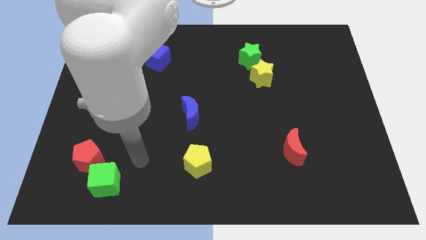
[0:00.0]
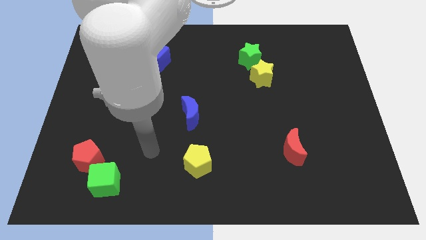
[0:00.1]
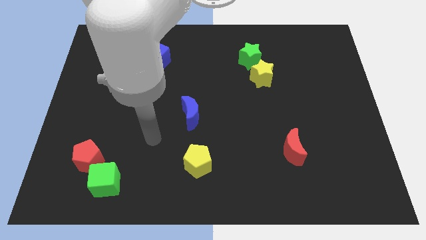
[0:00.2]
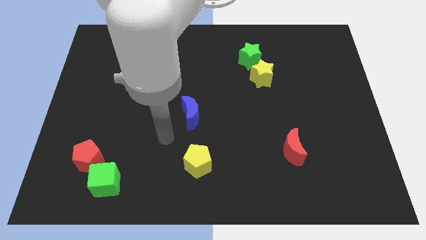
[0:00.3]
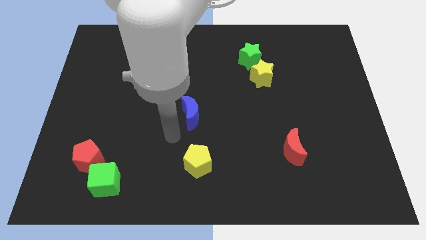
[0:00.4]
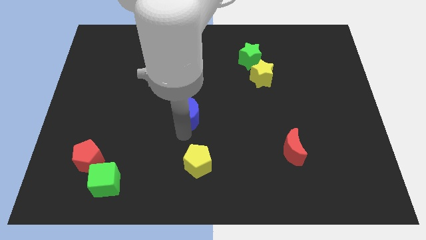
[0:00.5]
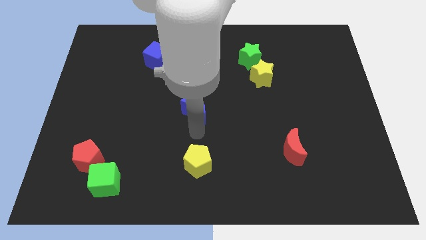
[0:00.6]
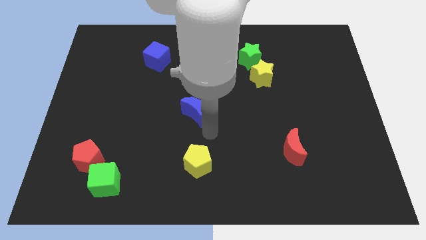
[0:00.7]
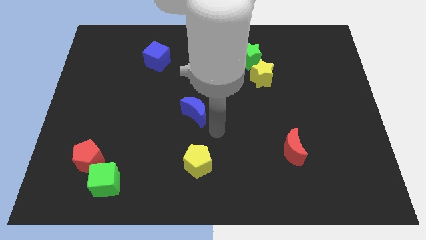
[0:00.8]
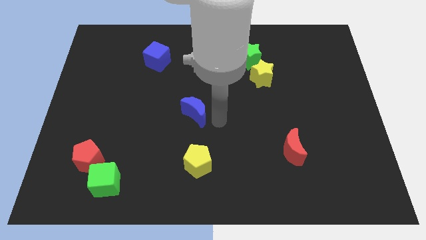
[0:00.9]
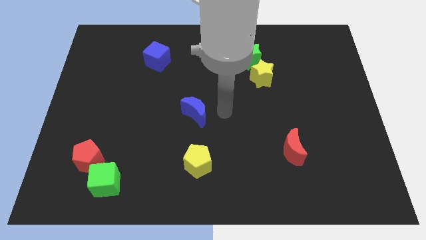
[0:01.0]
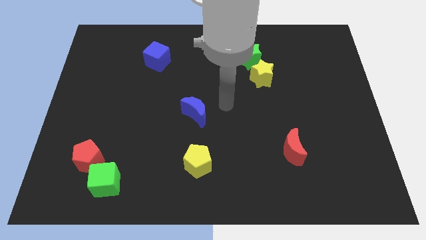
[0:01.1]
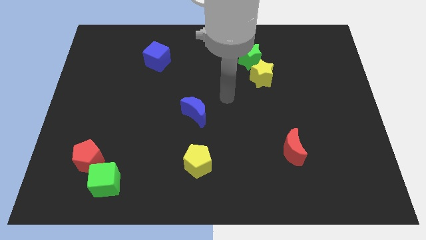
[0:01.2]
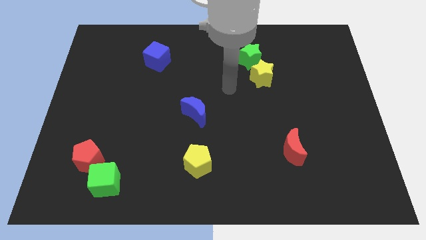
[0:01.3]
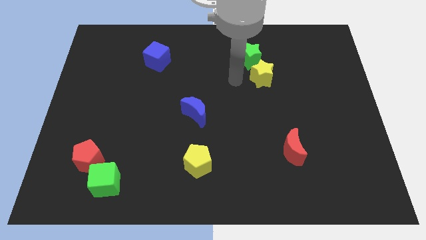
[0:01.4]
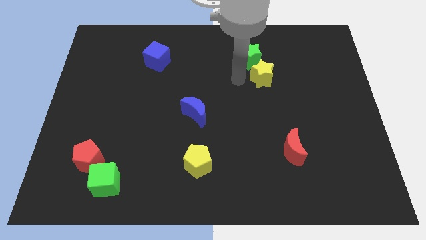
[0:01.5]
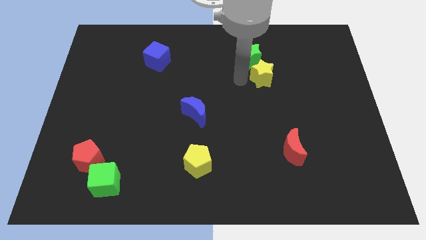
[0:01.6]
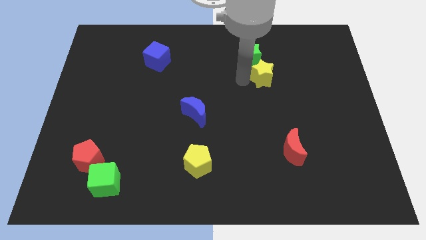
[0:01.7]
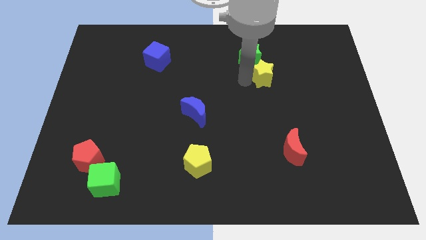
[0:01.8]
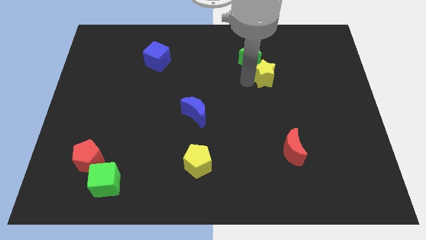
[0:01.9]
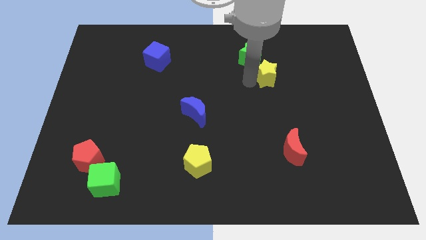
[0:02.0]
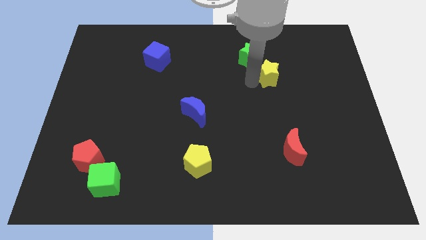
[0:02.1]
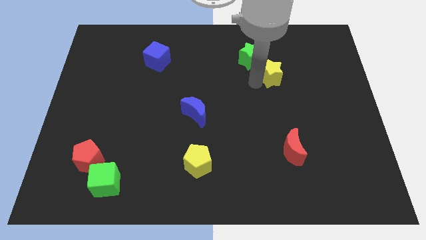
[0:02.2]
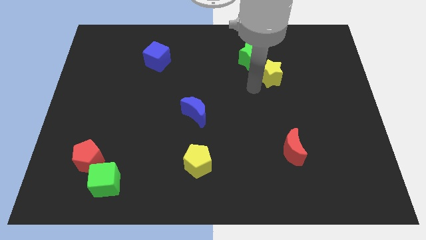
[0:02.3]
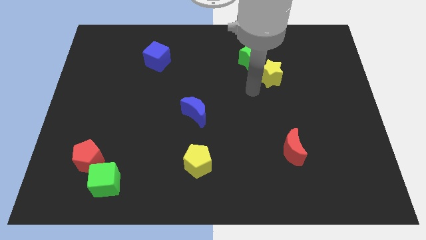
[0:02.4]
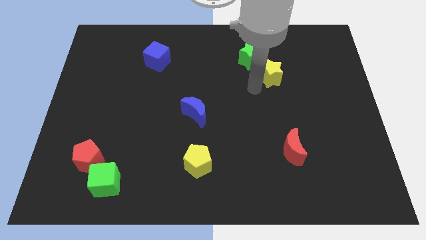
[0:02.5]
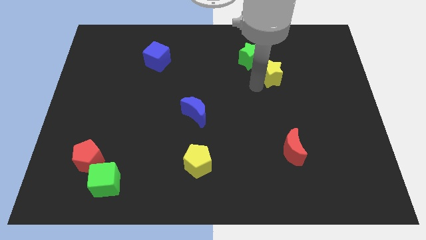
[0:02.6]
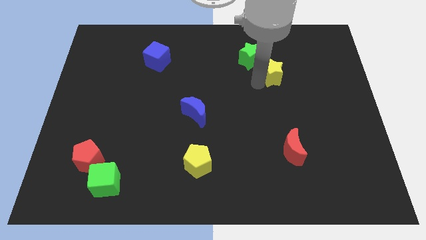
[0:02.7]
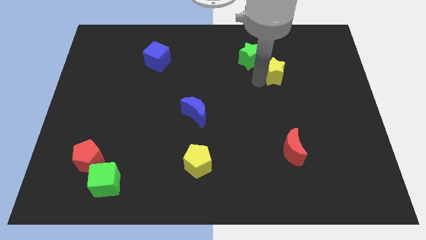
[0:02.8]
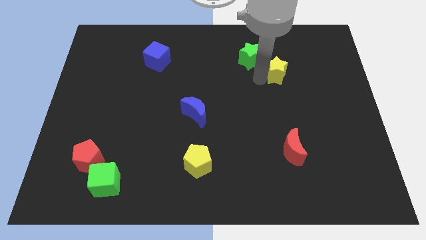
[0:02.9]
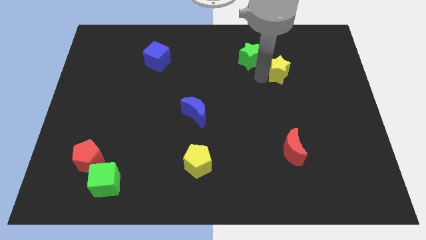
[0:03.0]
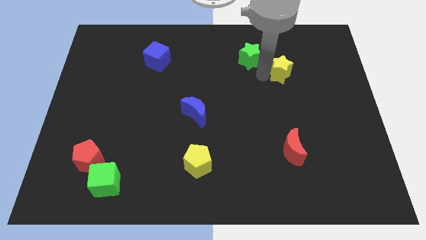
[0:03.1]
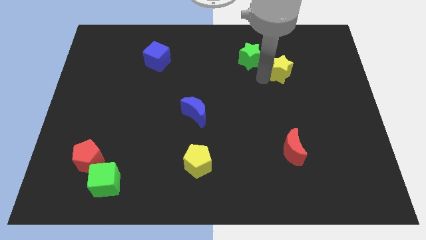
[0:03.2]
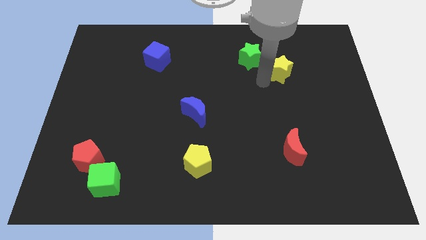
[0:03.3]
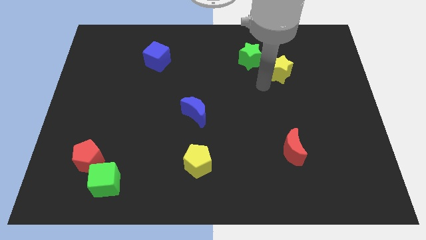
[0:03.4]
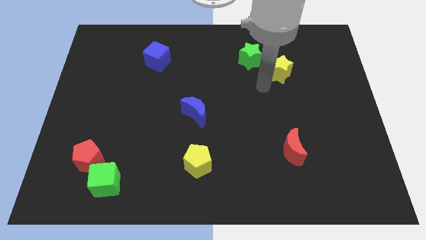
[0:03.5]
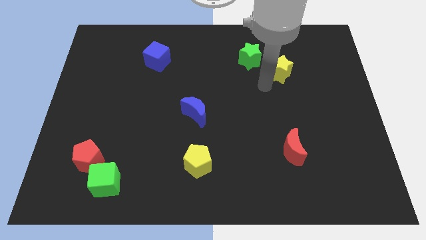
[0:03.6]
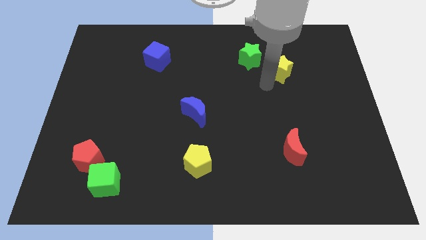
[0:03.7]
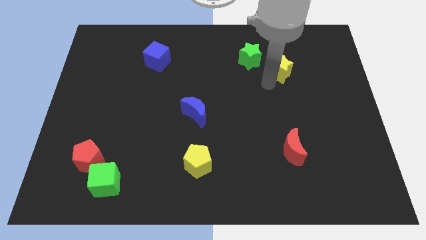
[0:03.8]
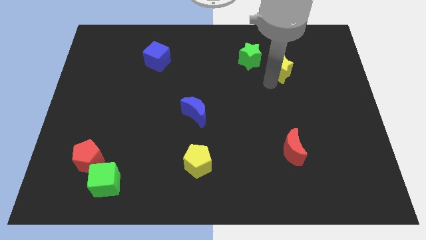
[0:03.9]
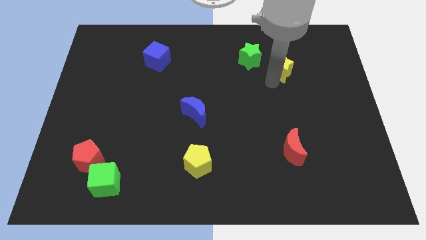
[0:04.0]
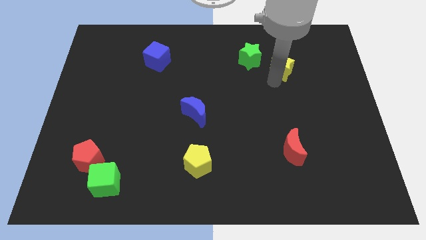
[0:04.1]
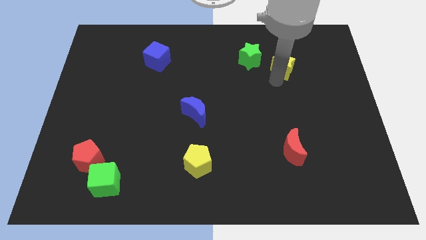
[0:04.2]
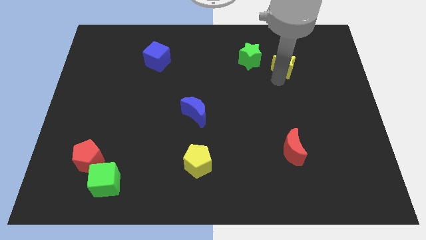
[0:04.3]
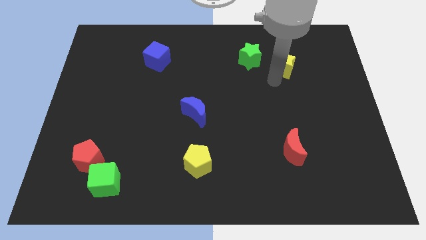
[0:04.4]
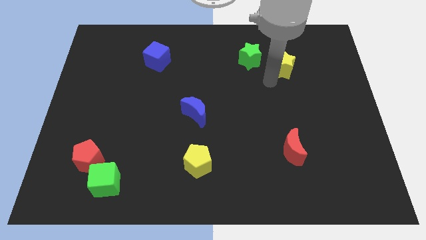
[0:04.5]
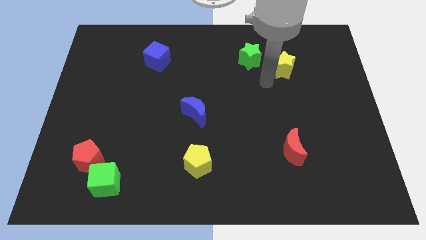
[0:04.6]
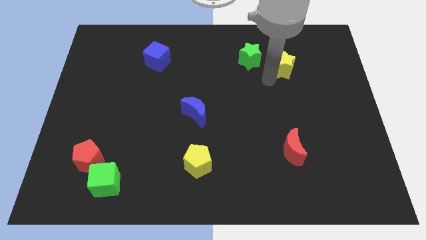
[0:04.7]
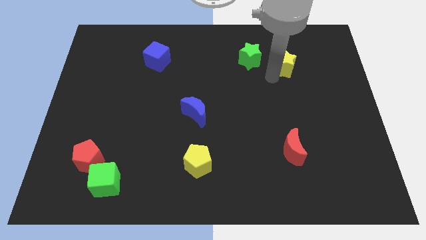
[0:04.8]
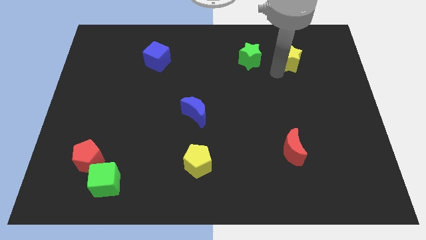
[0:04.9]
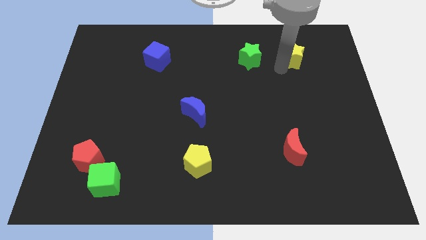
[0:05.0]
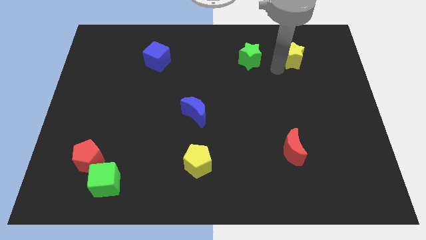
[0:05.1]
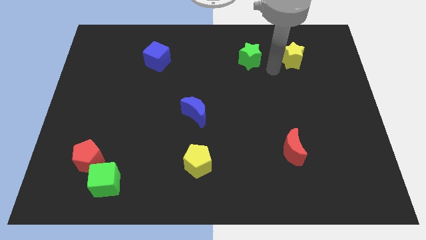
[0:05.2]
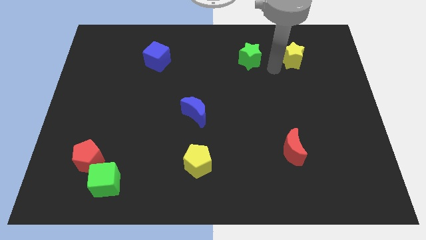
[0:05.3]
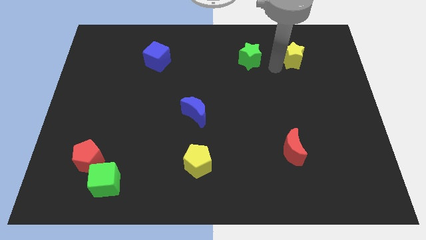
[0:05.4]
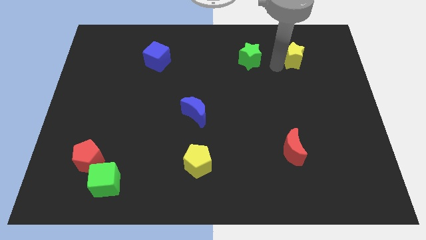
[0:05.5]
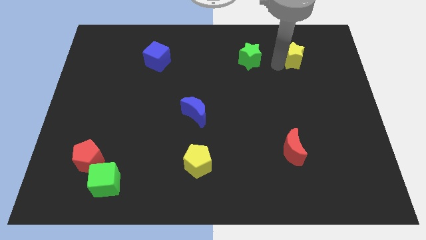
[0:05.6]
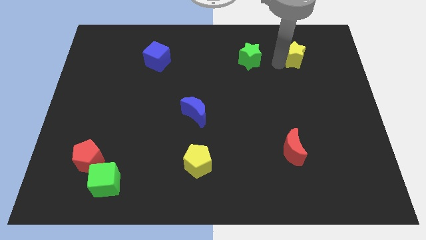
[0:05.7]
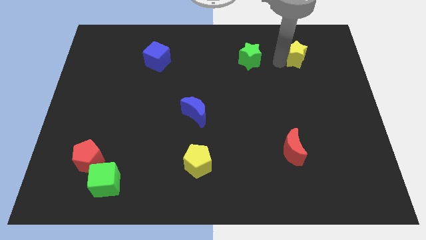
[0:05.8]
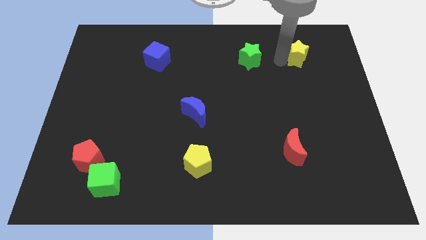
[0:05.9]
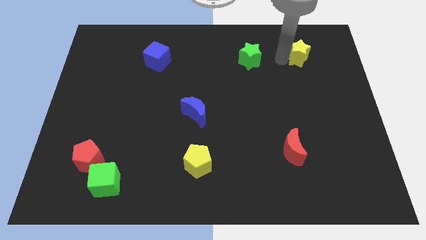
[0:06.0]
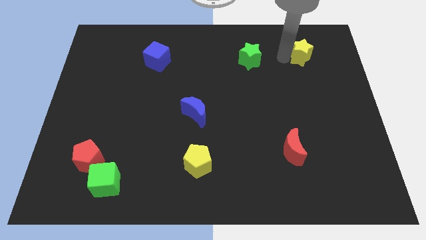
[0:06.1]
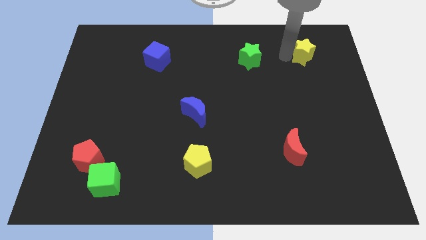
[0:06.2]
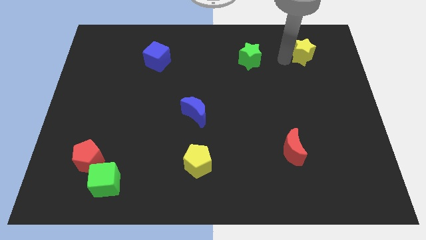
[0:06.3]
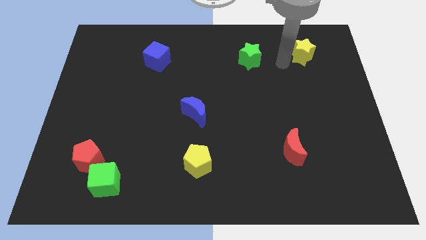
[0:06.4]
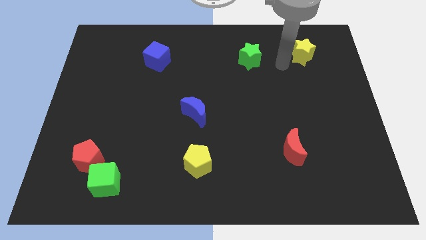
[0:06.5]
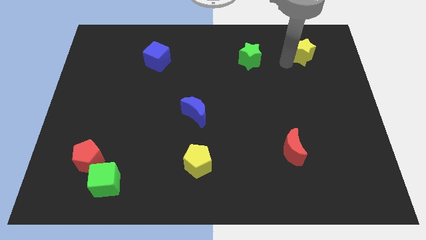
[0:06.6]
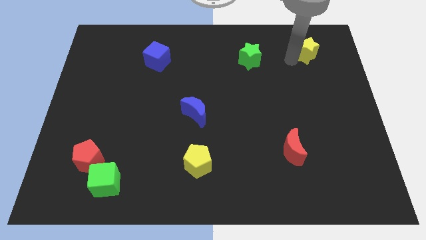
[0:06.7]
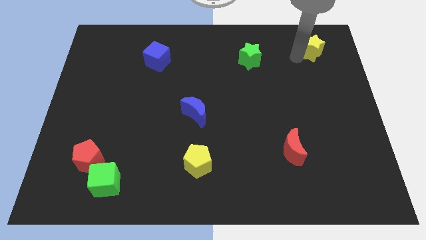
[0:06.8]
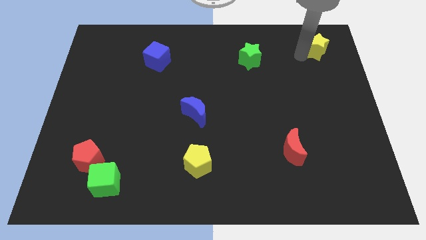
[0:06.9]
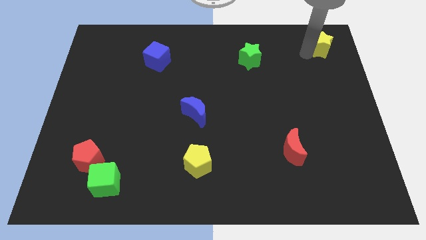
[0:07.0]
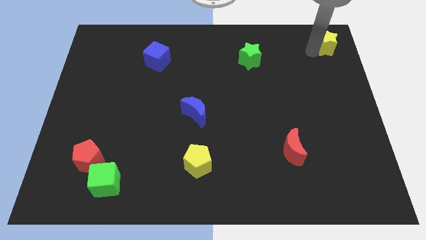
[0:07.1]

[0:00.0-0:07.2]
put the yellow star to the top right

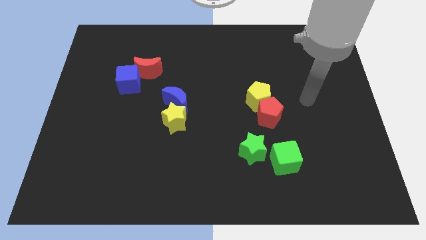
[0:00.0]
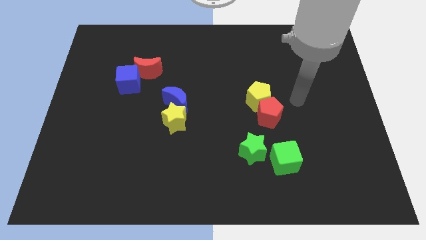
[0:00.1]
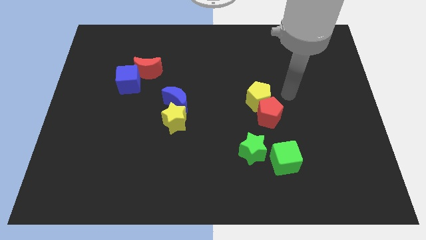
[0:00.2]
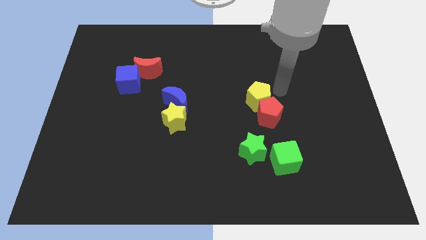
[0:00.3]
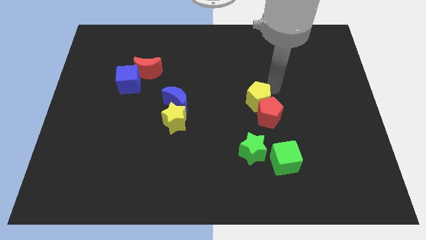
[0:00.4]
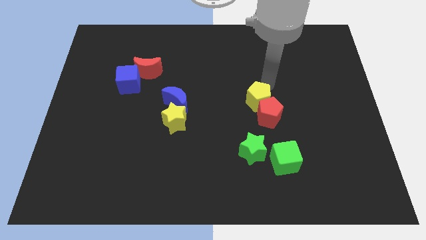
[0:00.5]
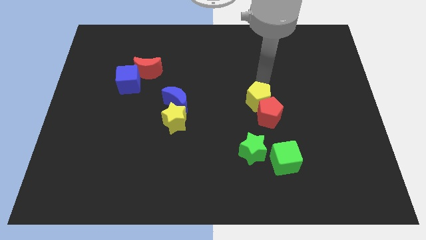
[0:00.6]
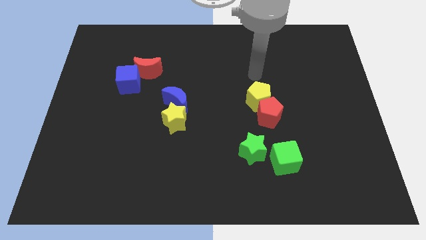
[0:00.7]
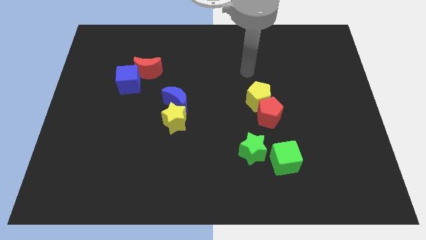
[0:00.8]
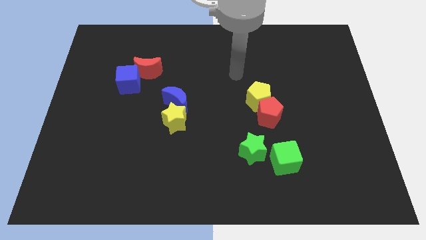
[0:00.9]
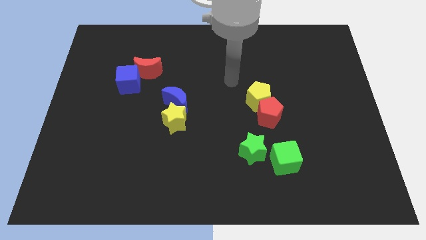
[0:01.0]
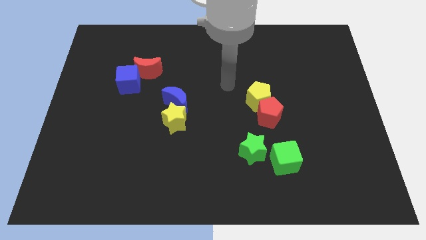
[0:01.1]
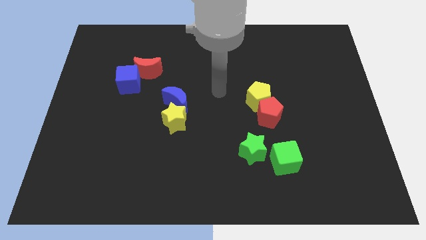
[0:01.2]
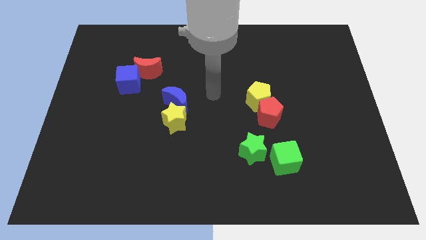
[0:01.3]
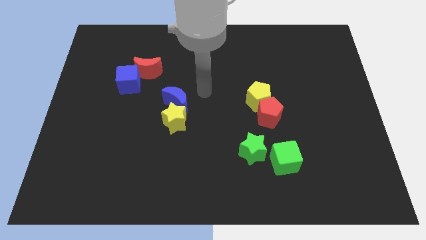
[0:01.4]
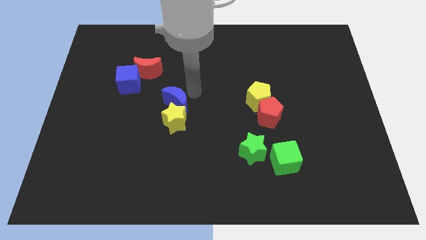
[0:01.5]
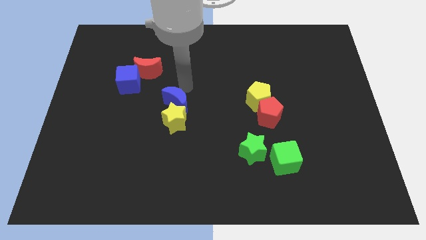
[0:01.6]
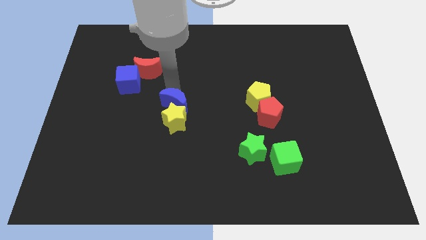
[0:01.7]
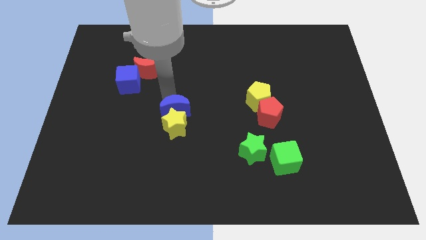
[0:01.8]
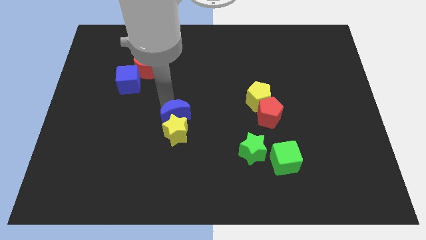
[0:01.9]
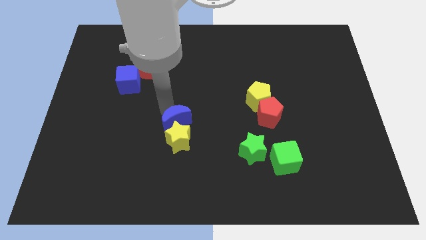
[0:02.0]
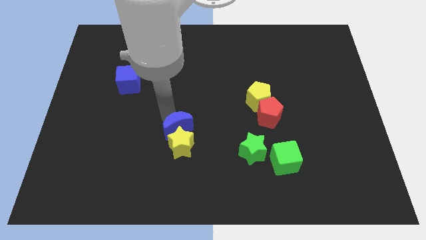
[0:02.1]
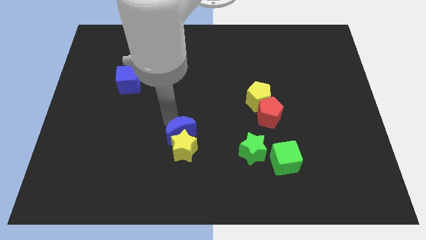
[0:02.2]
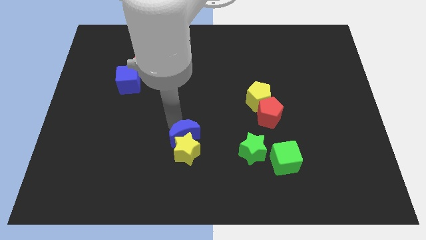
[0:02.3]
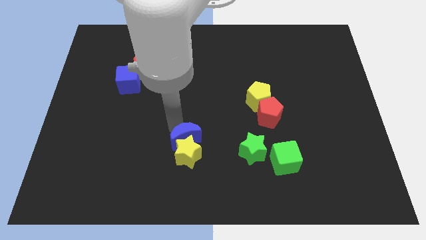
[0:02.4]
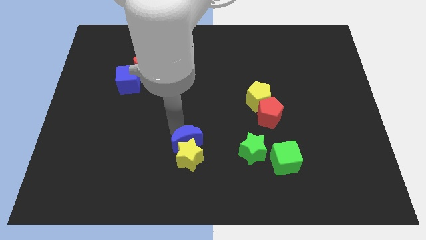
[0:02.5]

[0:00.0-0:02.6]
slide the yellow star to the bottom
